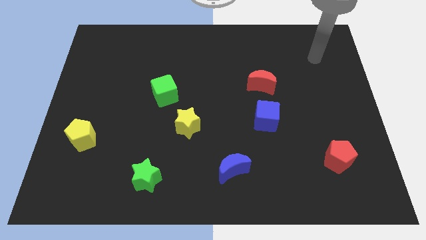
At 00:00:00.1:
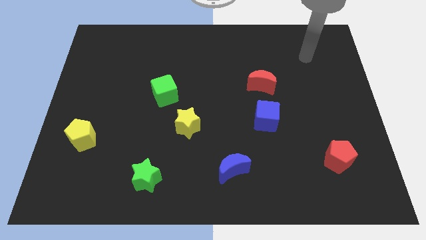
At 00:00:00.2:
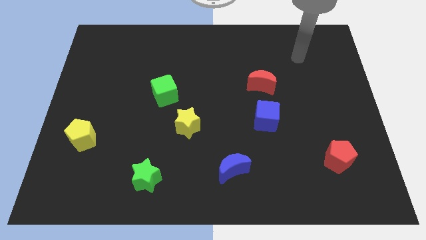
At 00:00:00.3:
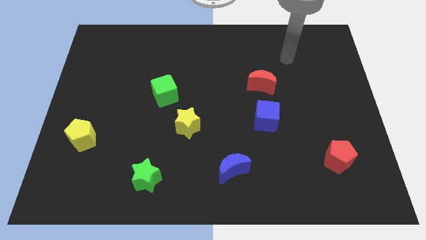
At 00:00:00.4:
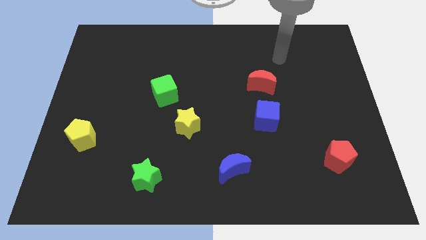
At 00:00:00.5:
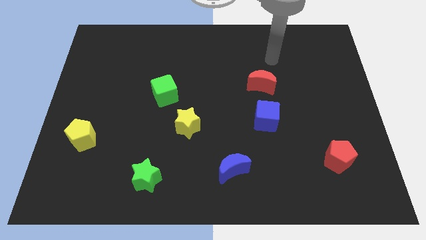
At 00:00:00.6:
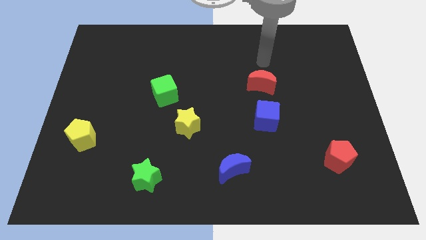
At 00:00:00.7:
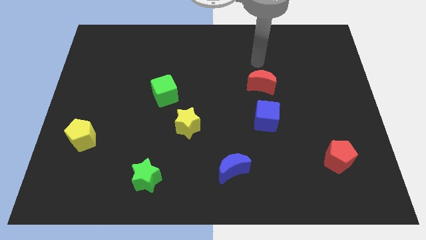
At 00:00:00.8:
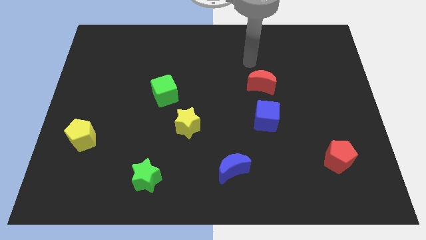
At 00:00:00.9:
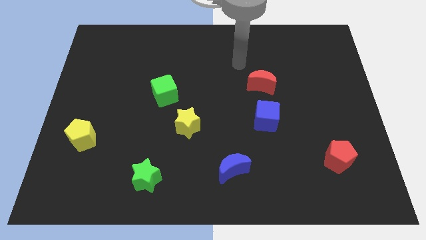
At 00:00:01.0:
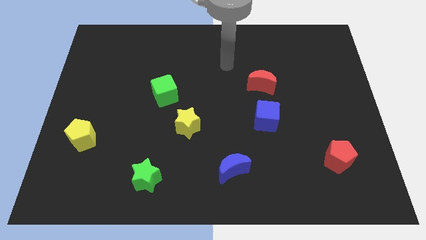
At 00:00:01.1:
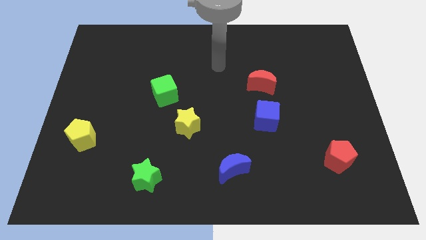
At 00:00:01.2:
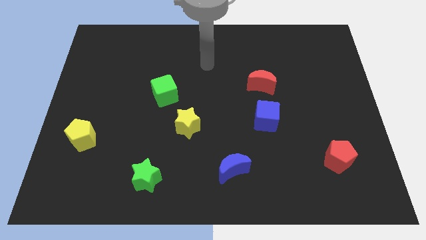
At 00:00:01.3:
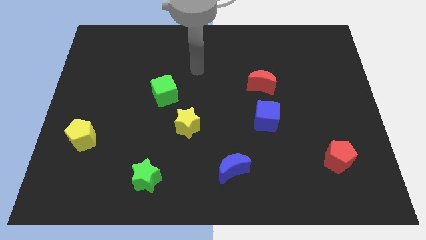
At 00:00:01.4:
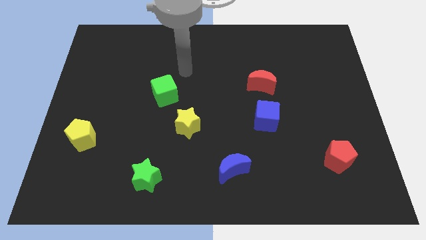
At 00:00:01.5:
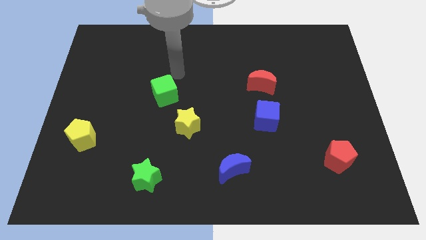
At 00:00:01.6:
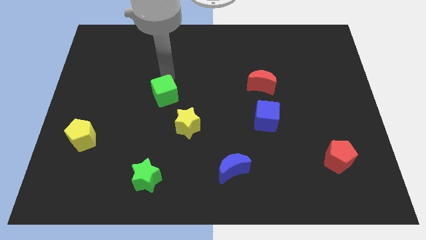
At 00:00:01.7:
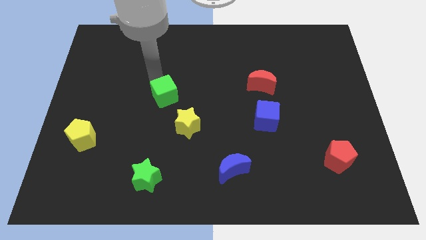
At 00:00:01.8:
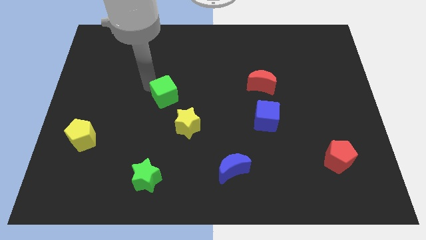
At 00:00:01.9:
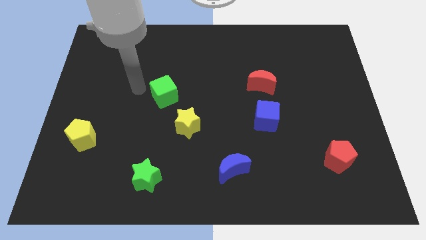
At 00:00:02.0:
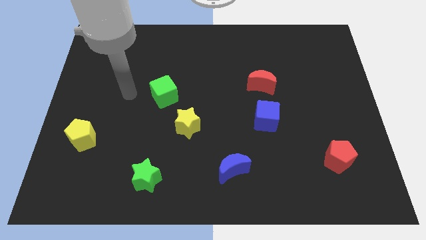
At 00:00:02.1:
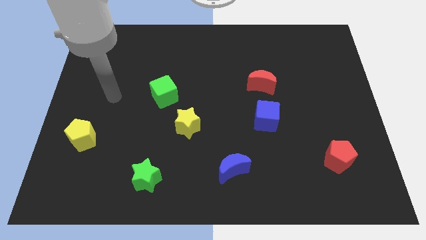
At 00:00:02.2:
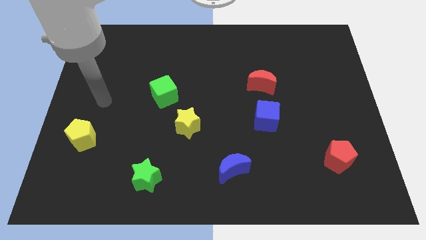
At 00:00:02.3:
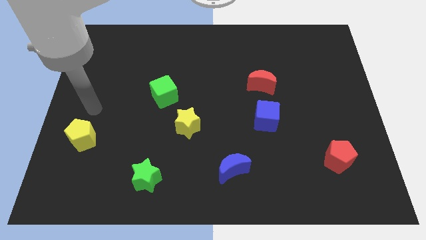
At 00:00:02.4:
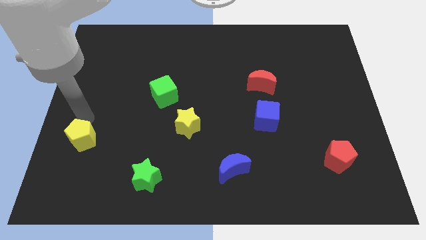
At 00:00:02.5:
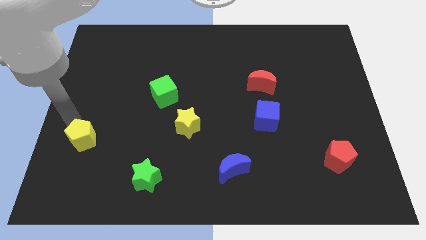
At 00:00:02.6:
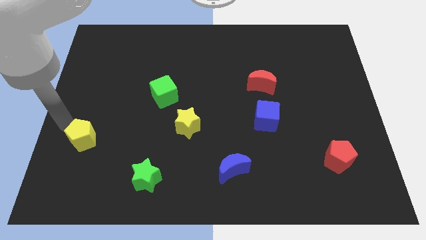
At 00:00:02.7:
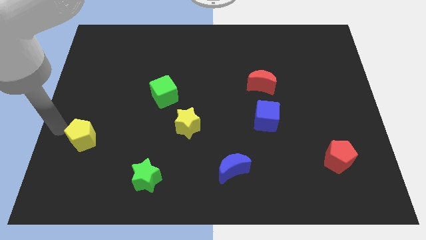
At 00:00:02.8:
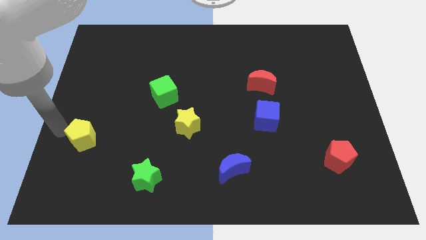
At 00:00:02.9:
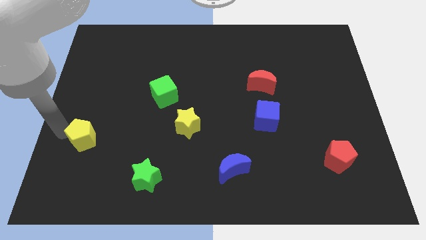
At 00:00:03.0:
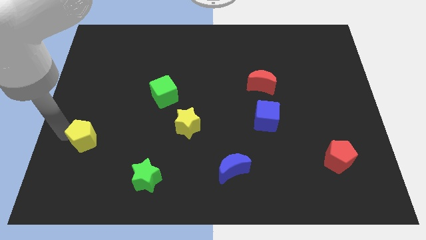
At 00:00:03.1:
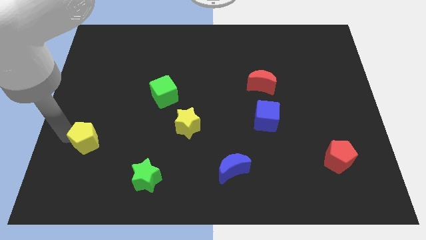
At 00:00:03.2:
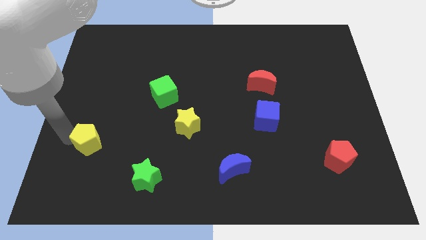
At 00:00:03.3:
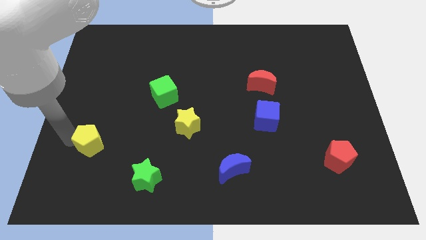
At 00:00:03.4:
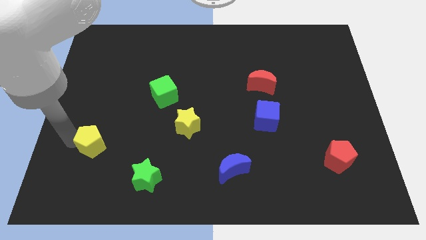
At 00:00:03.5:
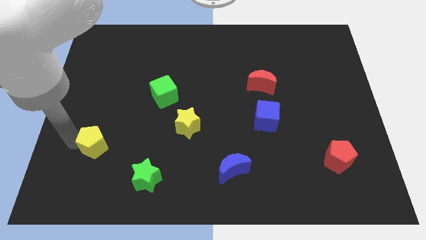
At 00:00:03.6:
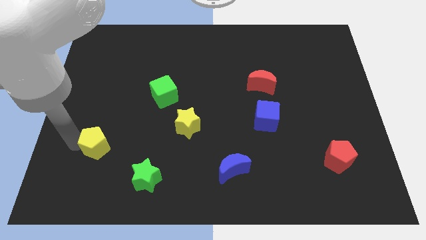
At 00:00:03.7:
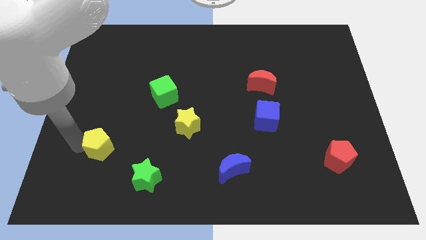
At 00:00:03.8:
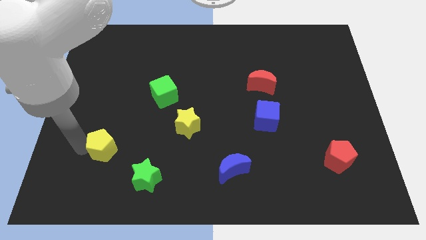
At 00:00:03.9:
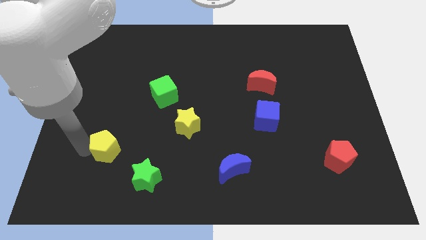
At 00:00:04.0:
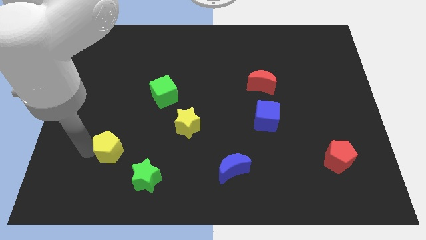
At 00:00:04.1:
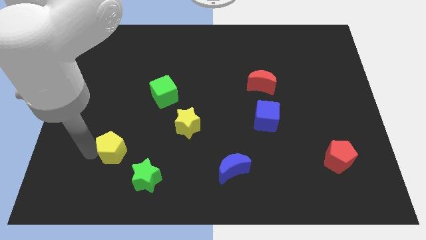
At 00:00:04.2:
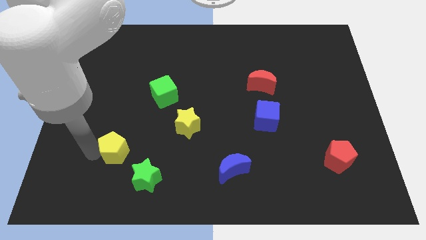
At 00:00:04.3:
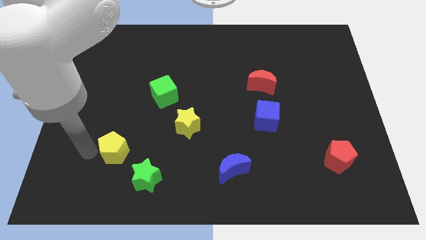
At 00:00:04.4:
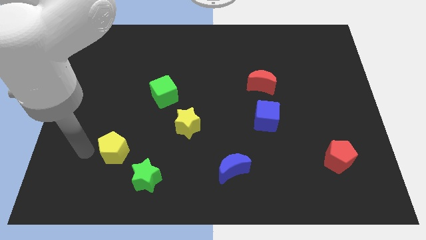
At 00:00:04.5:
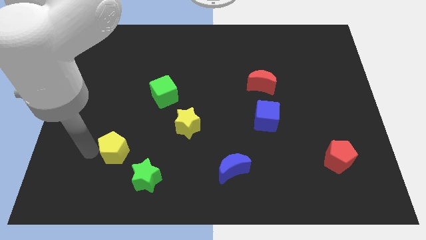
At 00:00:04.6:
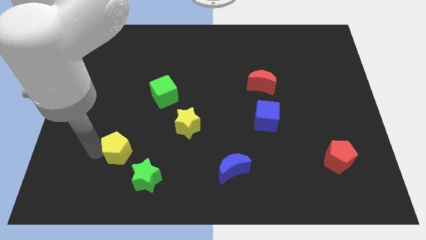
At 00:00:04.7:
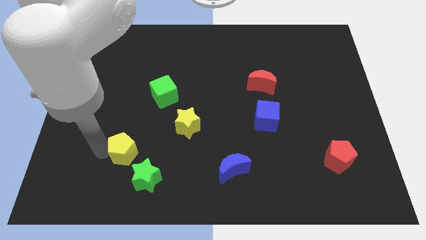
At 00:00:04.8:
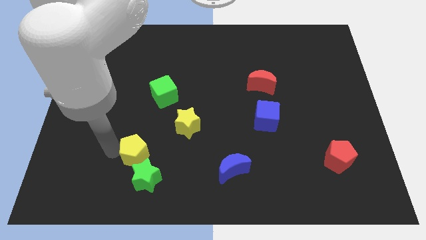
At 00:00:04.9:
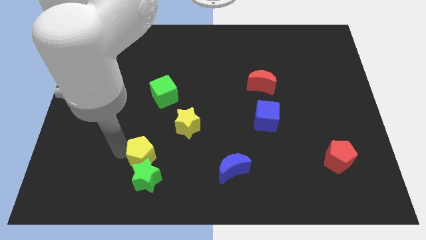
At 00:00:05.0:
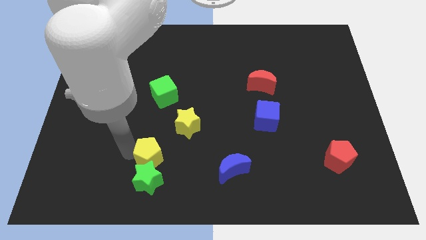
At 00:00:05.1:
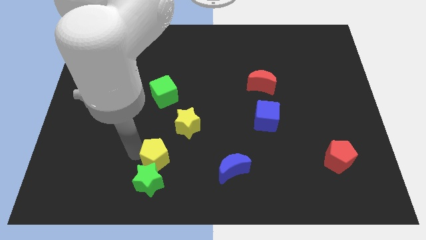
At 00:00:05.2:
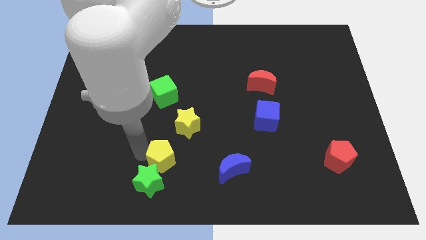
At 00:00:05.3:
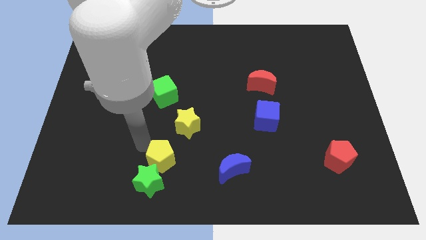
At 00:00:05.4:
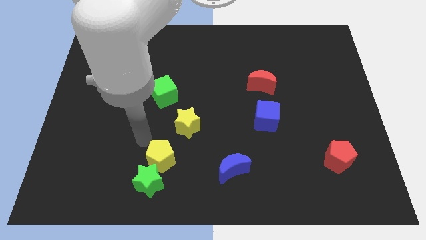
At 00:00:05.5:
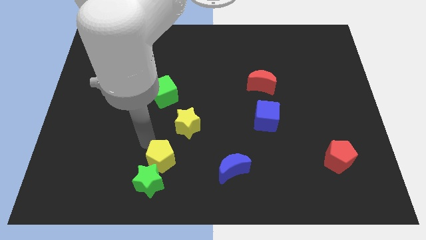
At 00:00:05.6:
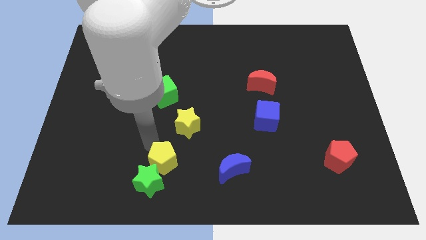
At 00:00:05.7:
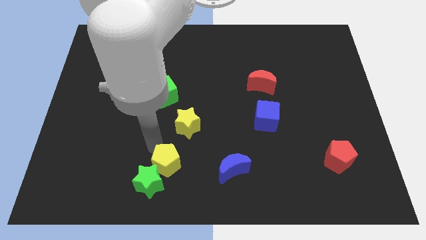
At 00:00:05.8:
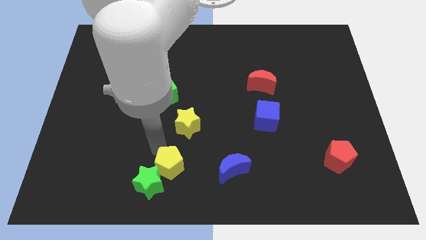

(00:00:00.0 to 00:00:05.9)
push the yellow pentagon to the bottom
